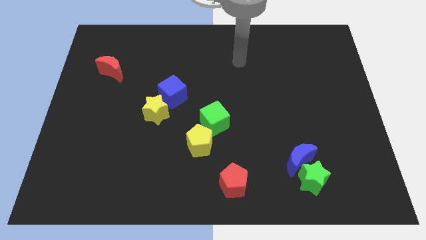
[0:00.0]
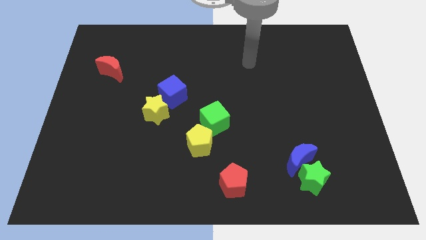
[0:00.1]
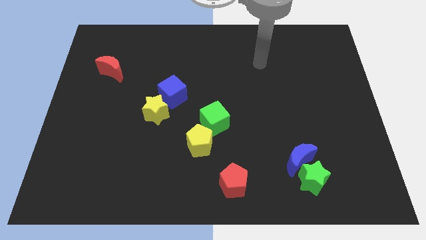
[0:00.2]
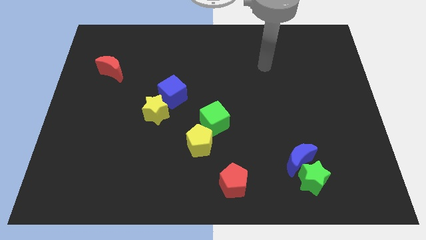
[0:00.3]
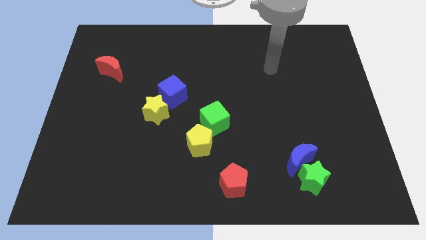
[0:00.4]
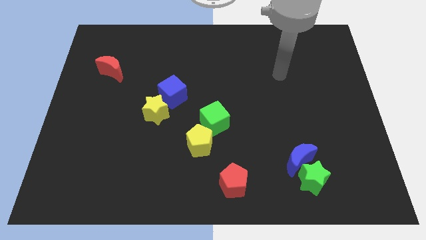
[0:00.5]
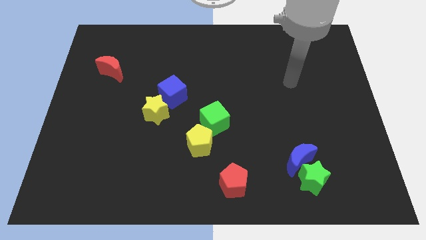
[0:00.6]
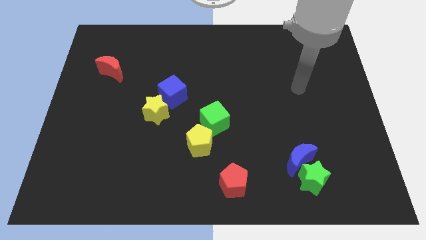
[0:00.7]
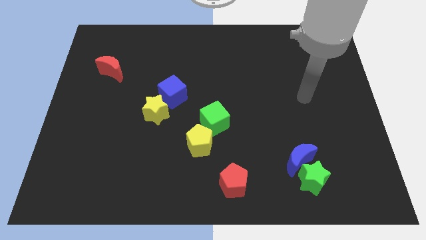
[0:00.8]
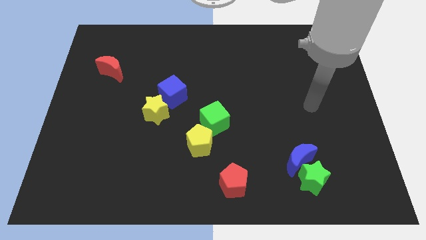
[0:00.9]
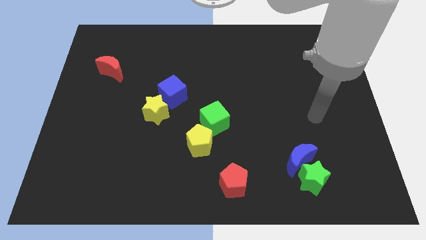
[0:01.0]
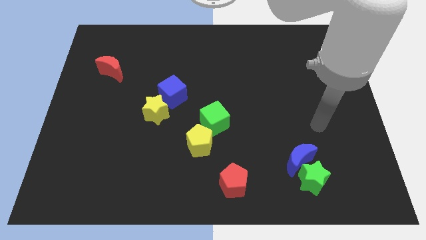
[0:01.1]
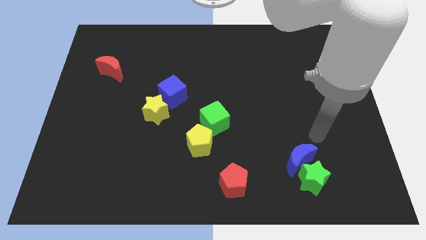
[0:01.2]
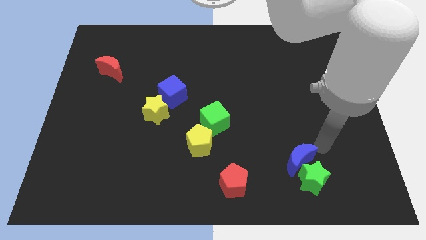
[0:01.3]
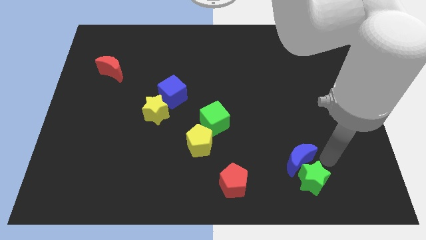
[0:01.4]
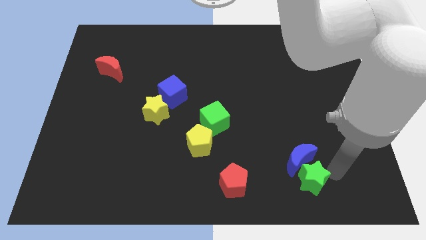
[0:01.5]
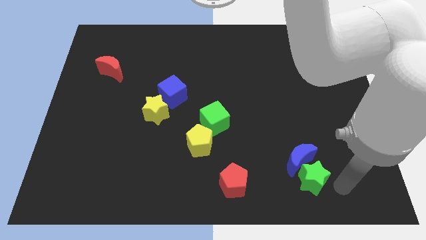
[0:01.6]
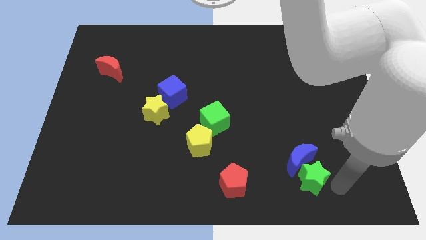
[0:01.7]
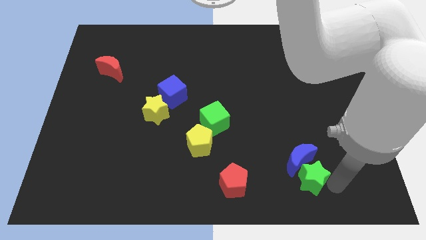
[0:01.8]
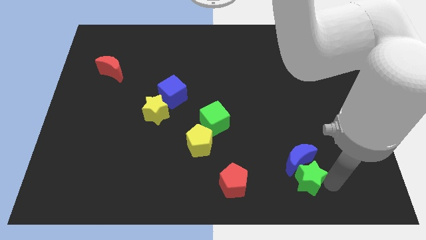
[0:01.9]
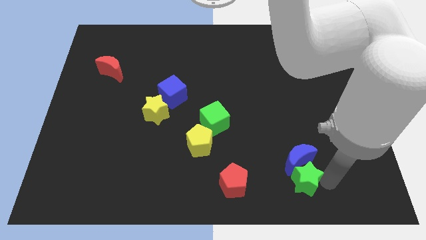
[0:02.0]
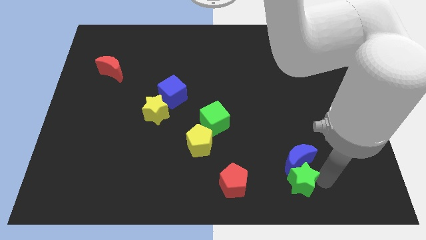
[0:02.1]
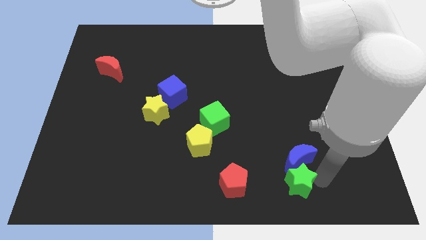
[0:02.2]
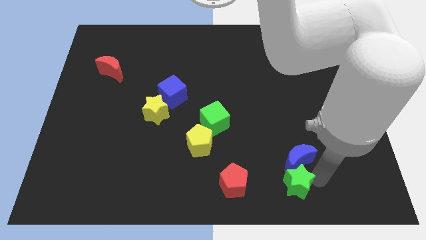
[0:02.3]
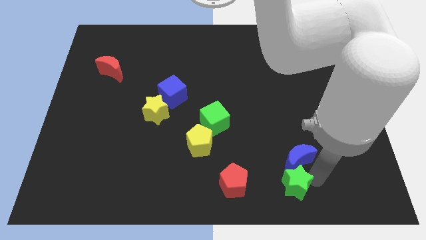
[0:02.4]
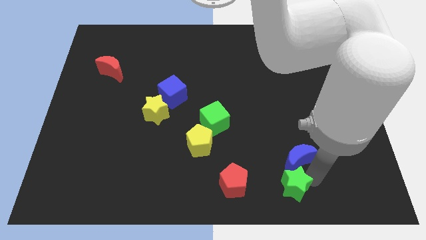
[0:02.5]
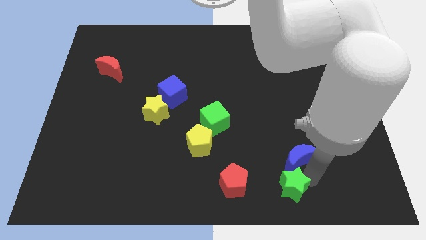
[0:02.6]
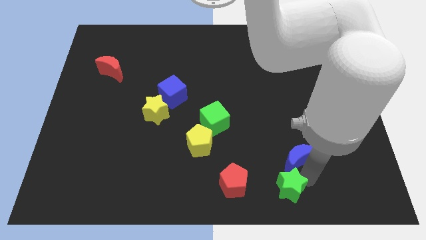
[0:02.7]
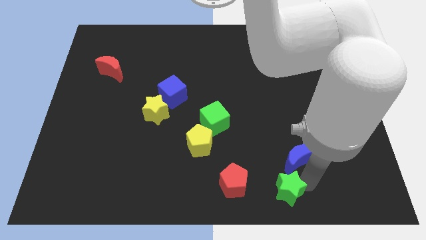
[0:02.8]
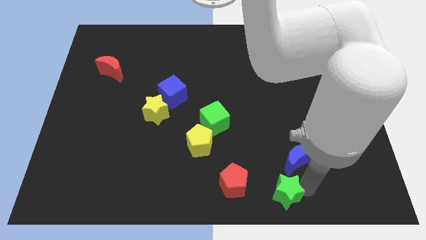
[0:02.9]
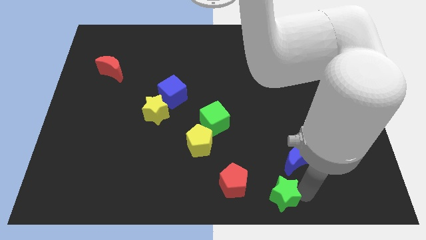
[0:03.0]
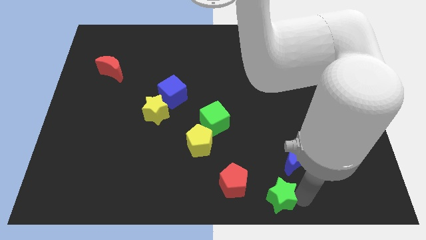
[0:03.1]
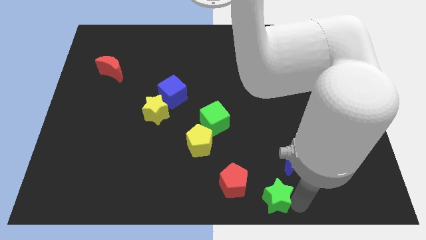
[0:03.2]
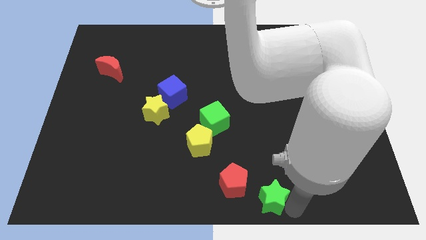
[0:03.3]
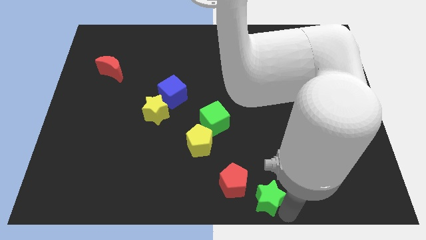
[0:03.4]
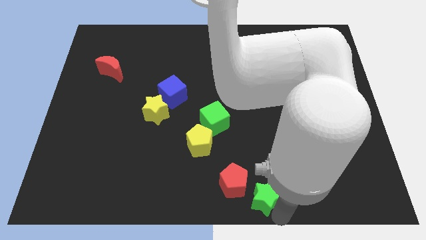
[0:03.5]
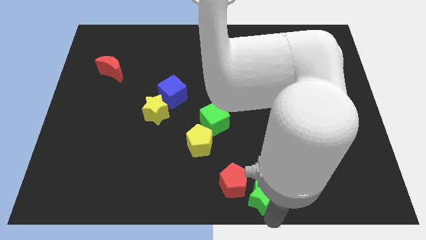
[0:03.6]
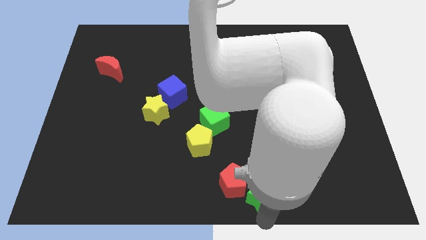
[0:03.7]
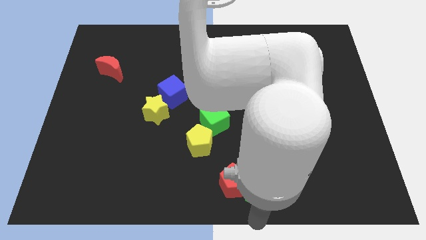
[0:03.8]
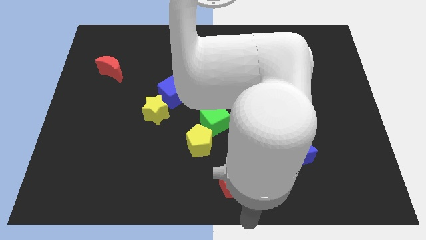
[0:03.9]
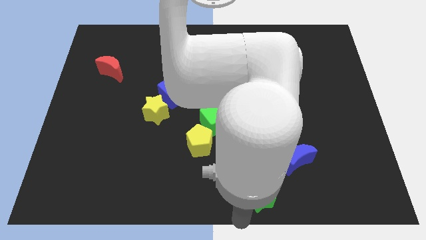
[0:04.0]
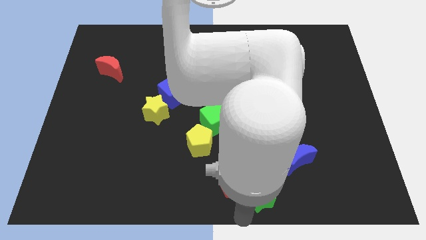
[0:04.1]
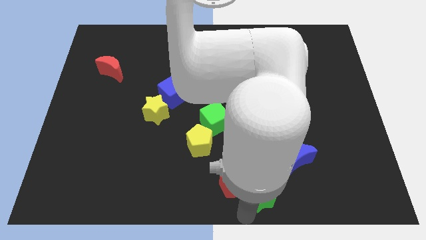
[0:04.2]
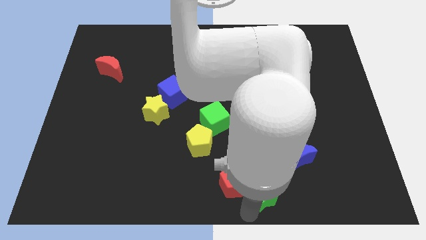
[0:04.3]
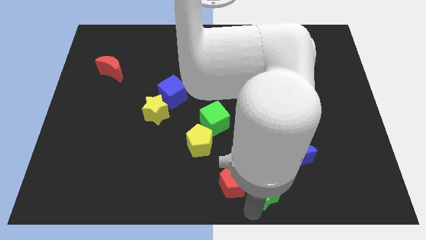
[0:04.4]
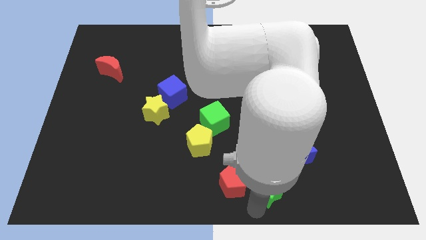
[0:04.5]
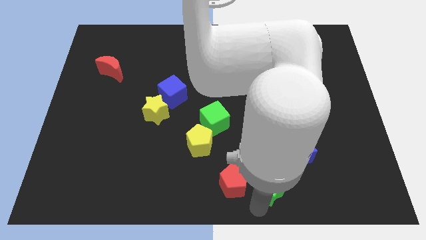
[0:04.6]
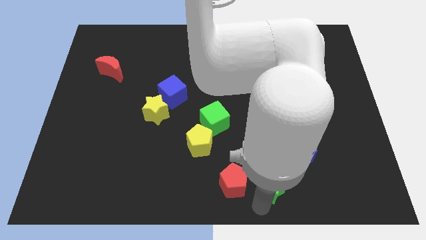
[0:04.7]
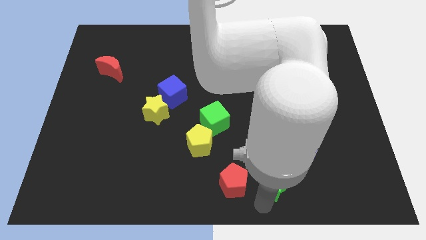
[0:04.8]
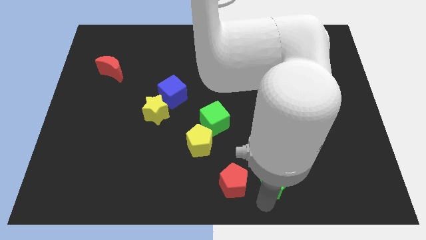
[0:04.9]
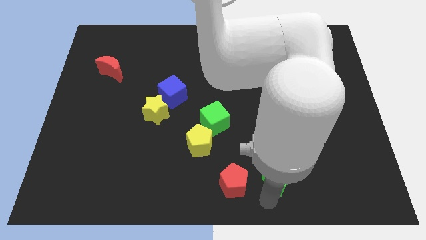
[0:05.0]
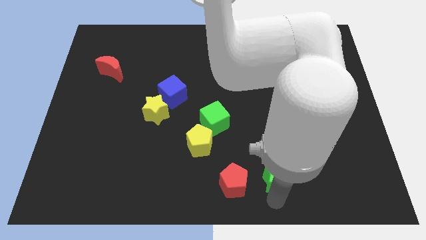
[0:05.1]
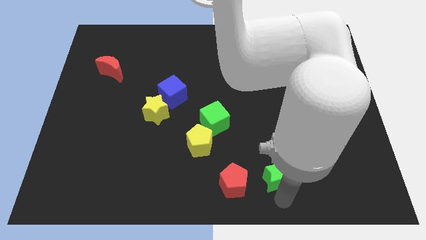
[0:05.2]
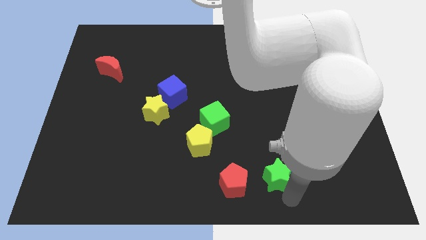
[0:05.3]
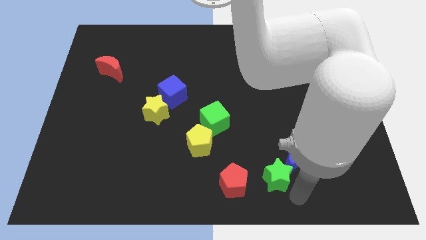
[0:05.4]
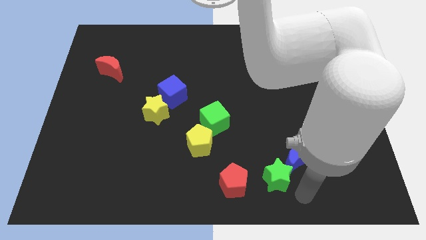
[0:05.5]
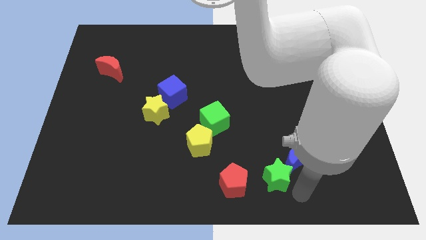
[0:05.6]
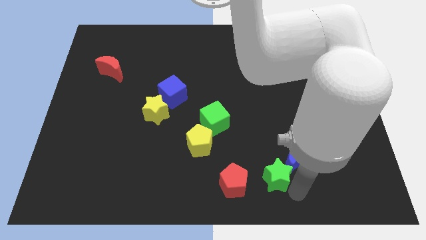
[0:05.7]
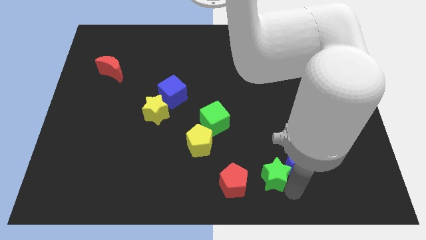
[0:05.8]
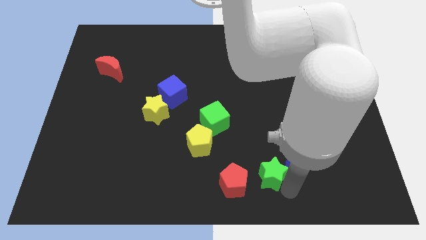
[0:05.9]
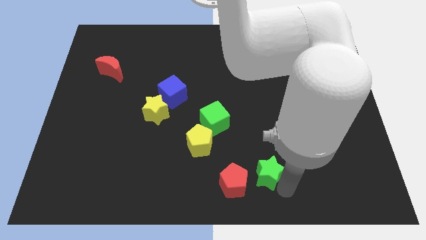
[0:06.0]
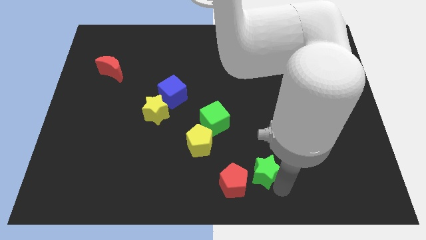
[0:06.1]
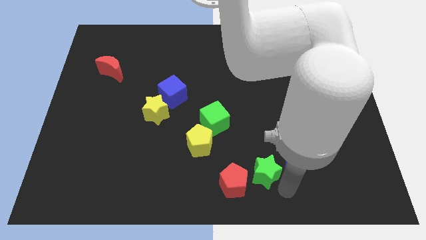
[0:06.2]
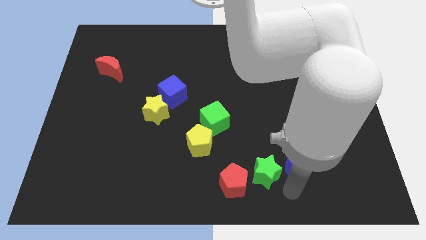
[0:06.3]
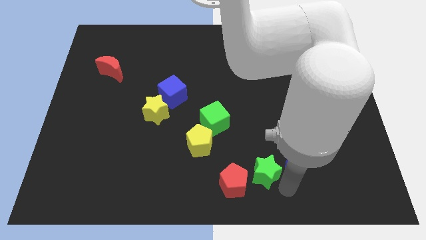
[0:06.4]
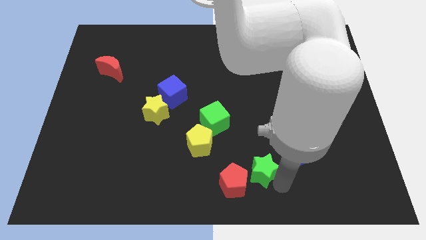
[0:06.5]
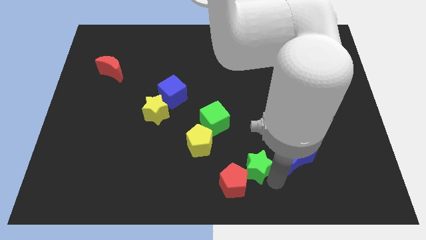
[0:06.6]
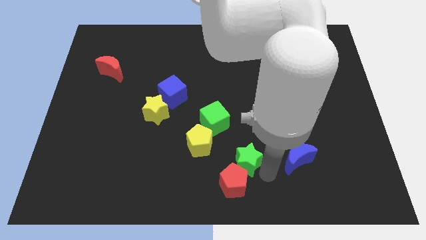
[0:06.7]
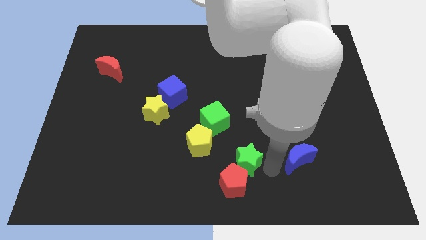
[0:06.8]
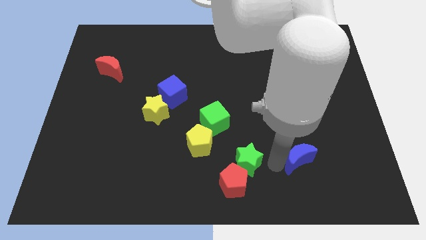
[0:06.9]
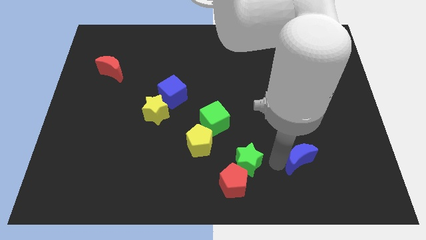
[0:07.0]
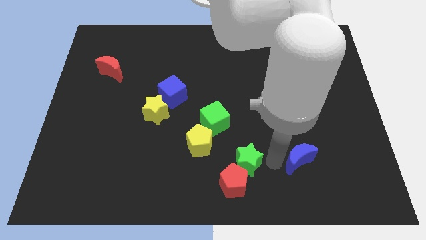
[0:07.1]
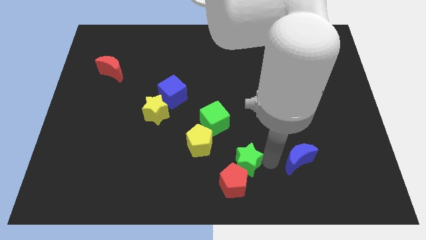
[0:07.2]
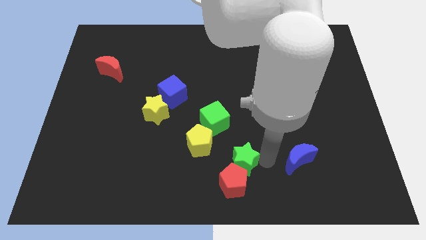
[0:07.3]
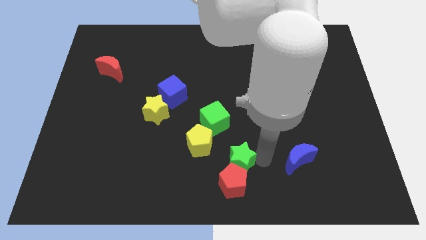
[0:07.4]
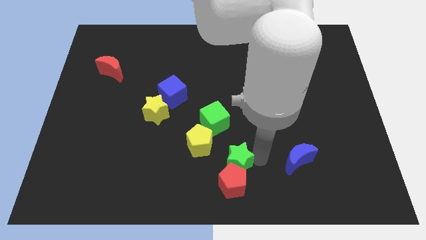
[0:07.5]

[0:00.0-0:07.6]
slide the green star below the green cube

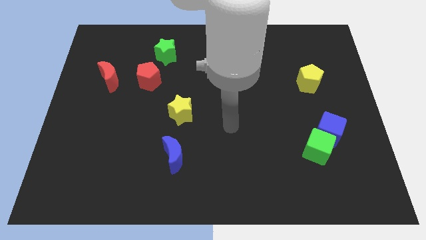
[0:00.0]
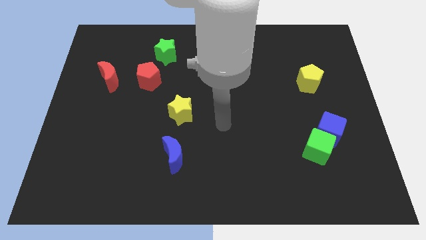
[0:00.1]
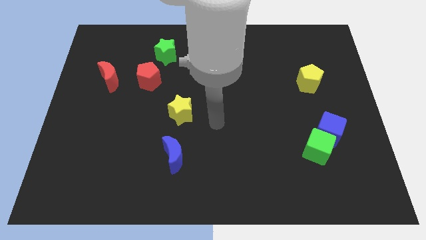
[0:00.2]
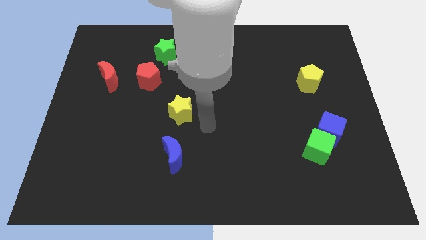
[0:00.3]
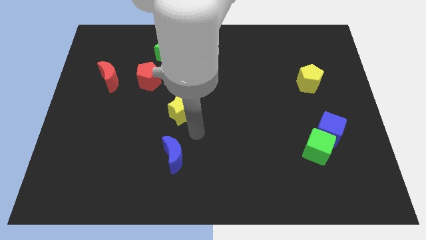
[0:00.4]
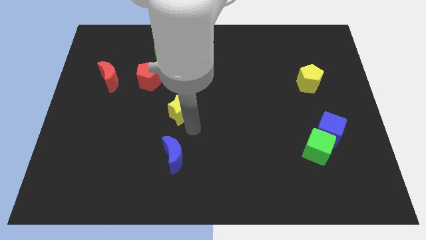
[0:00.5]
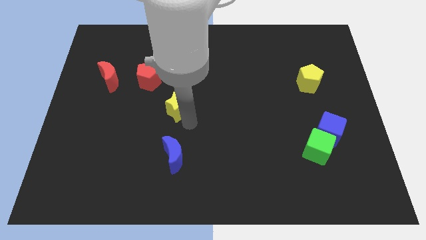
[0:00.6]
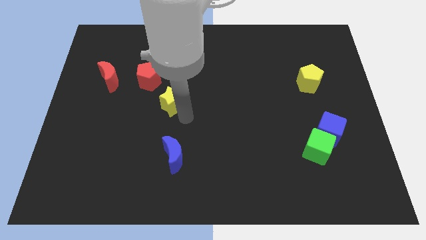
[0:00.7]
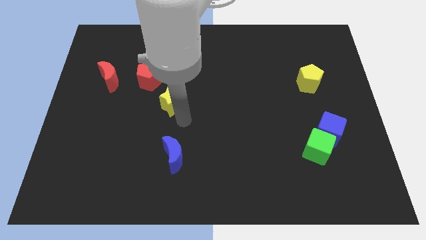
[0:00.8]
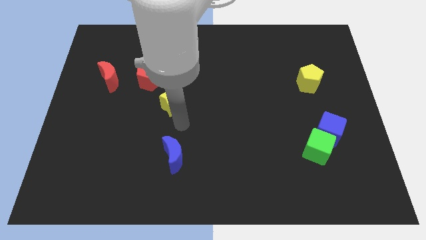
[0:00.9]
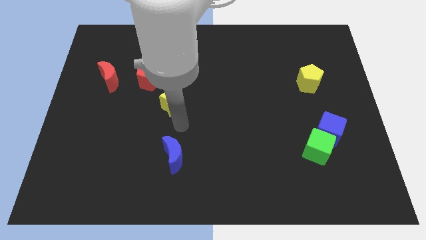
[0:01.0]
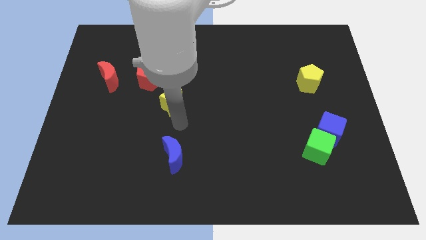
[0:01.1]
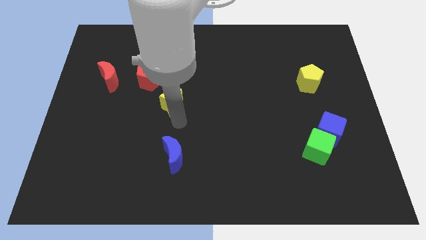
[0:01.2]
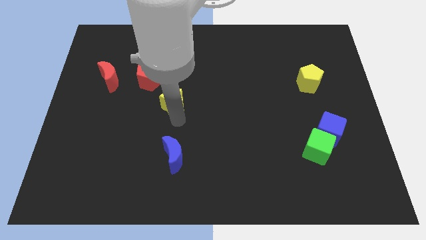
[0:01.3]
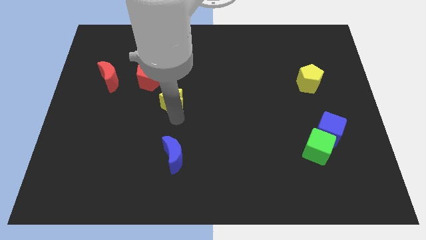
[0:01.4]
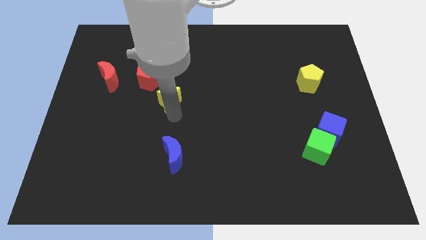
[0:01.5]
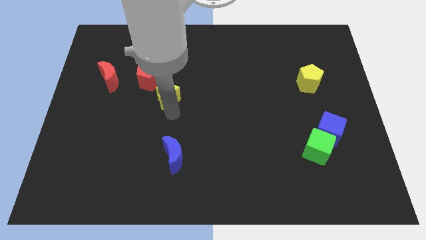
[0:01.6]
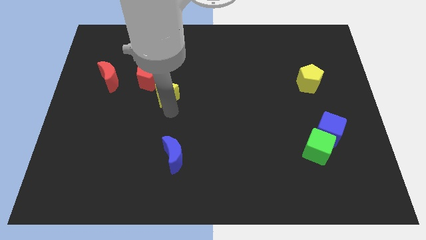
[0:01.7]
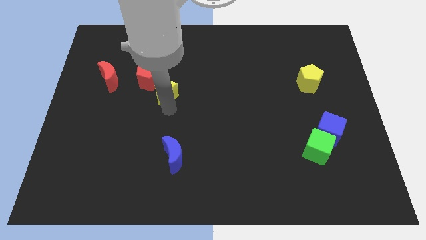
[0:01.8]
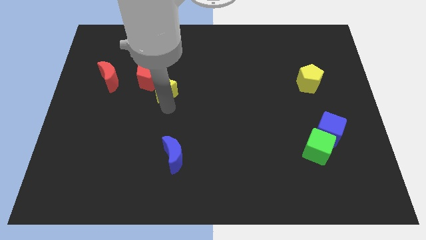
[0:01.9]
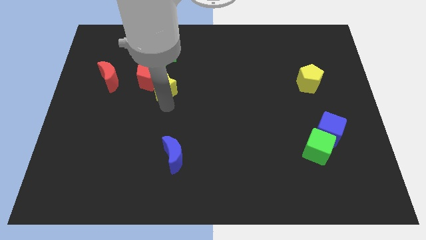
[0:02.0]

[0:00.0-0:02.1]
push the yellow star just right of the red moon
